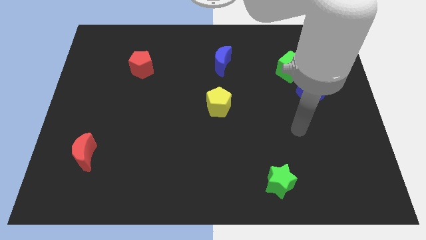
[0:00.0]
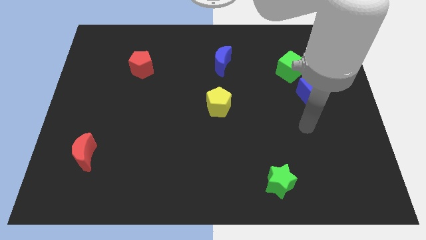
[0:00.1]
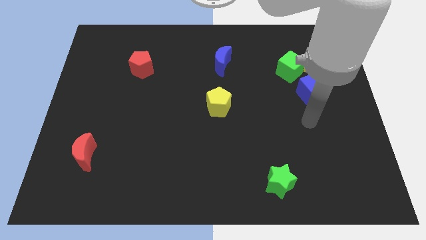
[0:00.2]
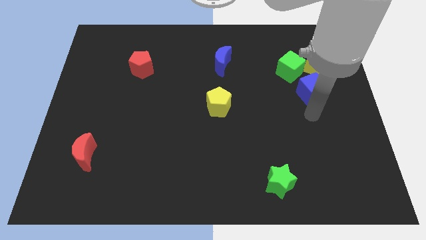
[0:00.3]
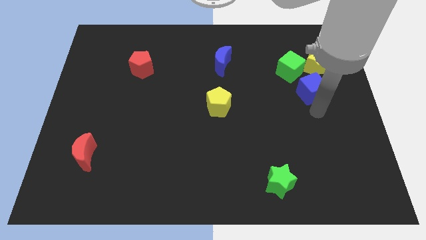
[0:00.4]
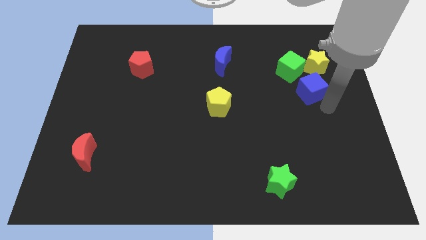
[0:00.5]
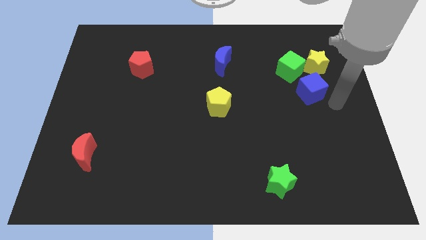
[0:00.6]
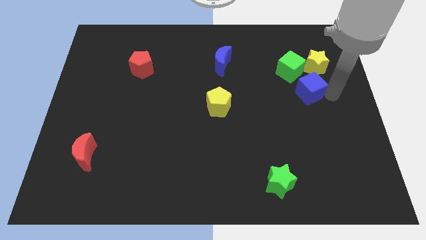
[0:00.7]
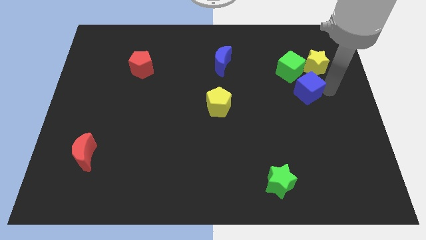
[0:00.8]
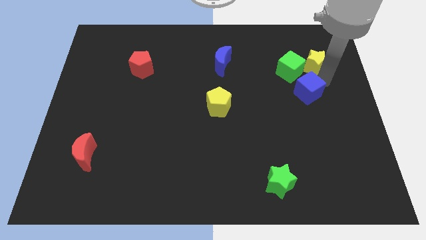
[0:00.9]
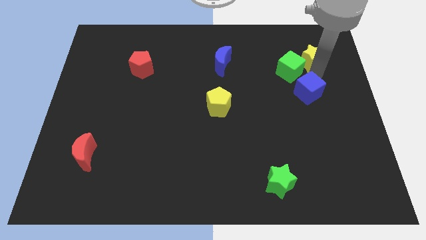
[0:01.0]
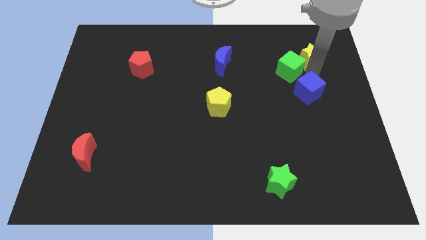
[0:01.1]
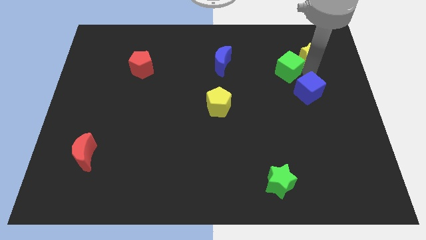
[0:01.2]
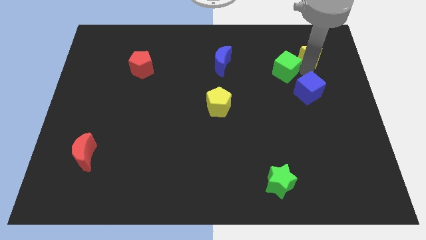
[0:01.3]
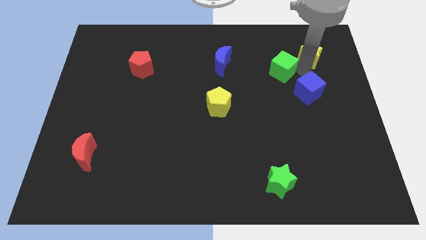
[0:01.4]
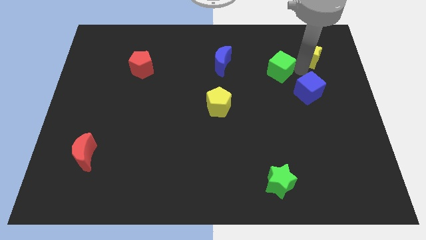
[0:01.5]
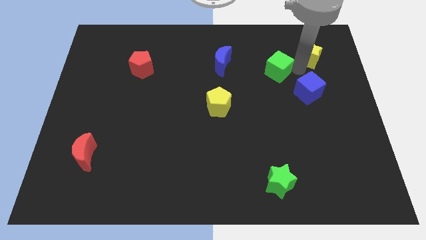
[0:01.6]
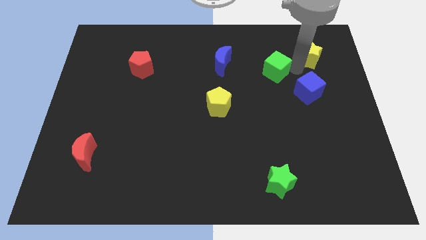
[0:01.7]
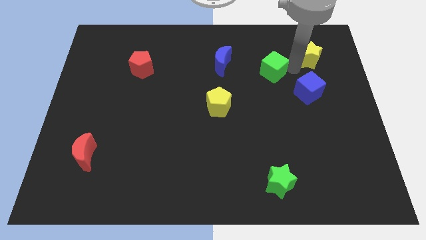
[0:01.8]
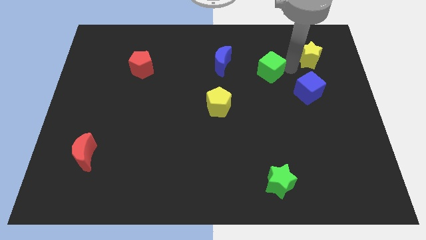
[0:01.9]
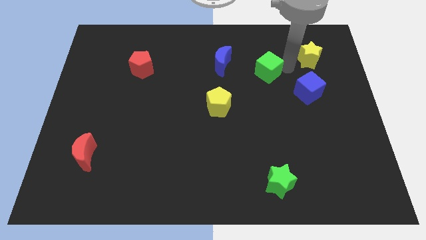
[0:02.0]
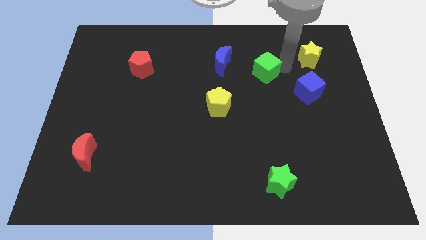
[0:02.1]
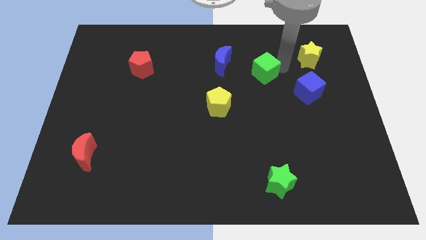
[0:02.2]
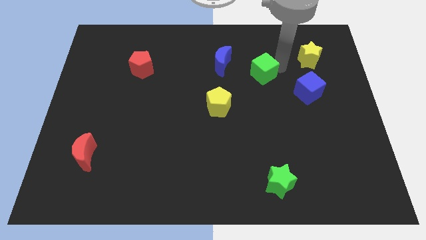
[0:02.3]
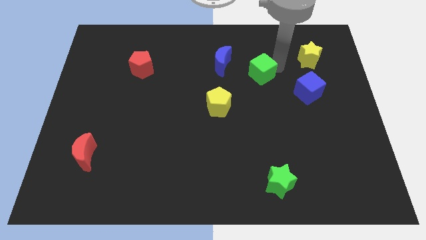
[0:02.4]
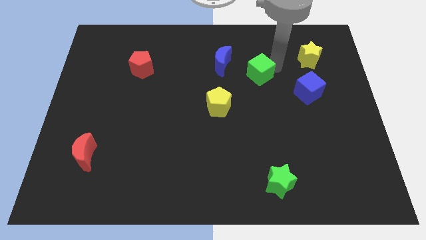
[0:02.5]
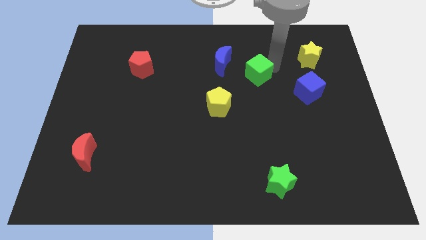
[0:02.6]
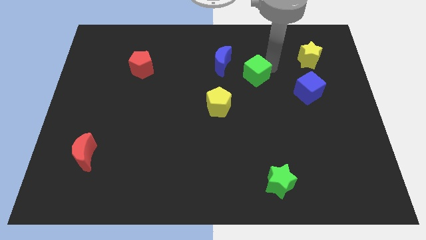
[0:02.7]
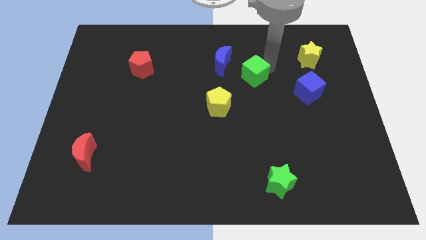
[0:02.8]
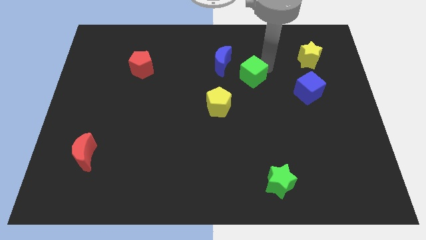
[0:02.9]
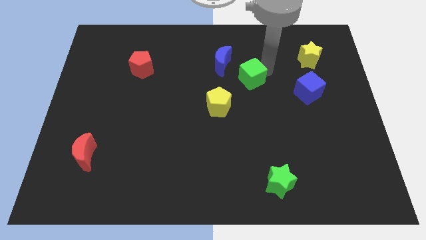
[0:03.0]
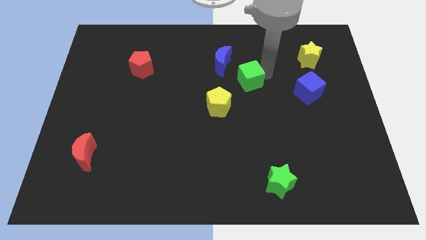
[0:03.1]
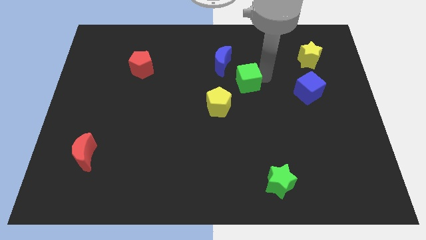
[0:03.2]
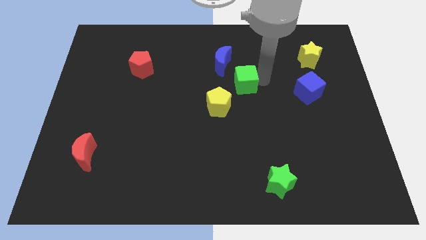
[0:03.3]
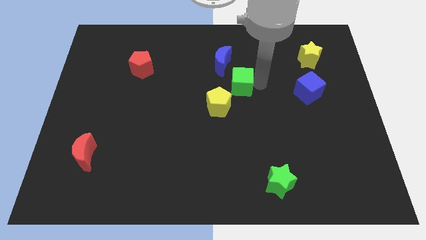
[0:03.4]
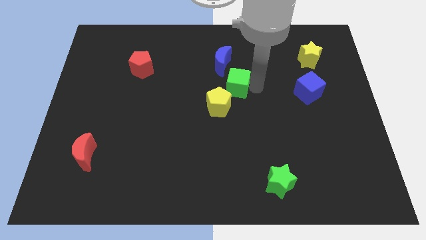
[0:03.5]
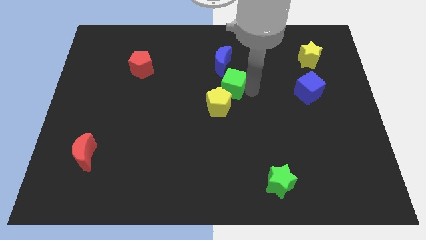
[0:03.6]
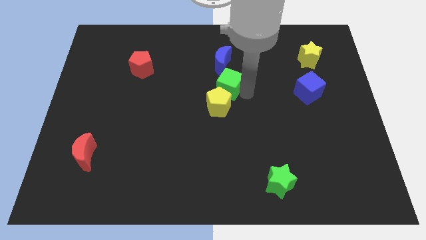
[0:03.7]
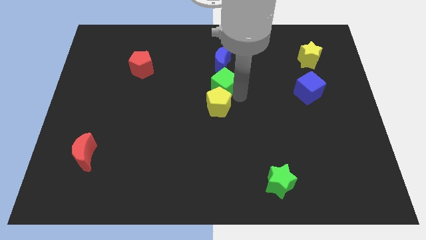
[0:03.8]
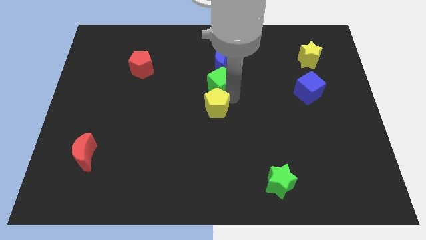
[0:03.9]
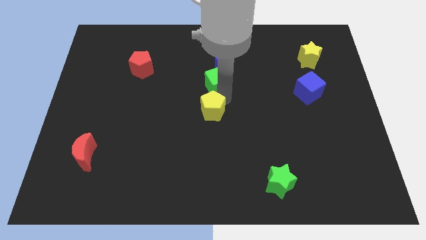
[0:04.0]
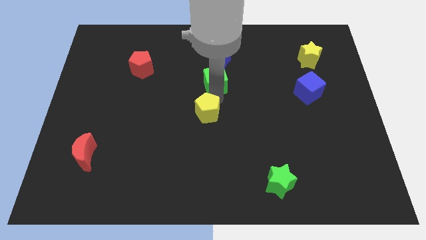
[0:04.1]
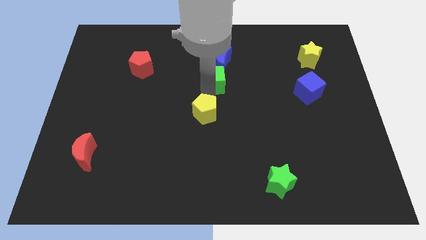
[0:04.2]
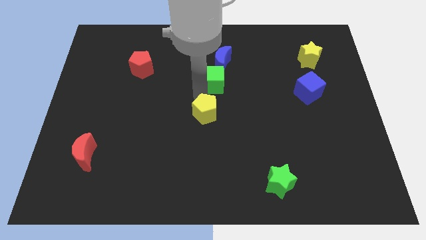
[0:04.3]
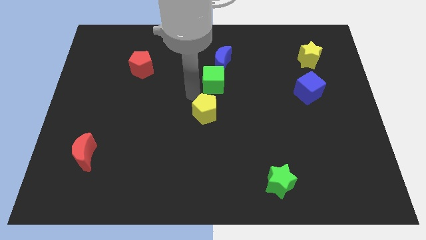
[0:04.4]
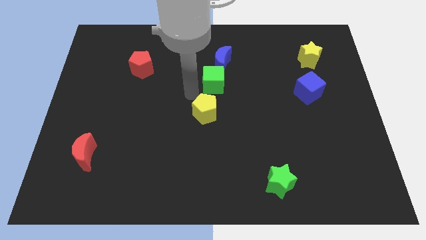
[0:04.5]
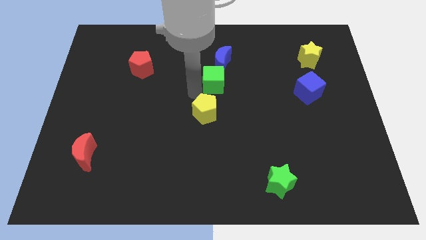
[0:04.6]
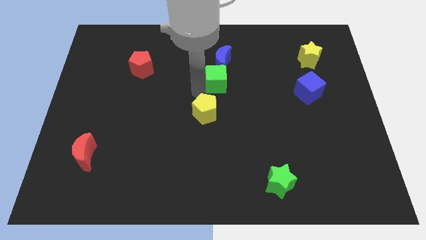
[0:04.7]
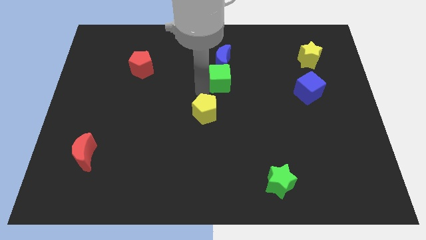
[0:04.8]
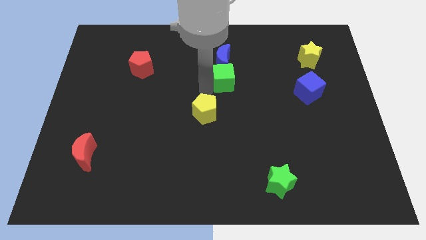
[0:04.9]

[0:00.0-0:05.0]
push the green cube close to the blue moon

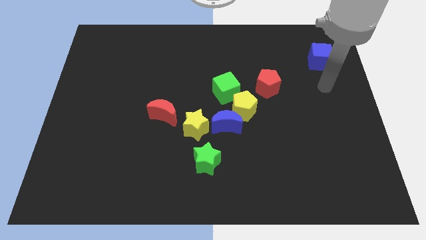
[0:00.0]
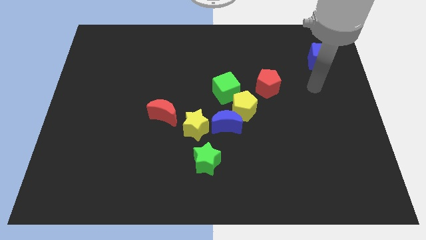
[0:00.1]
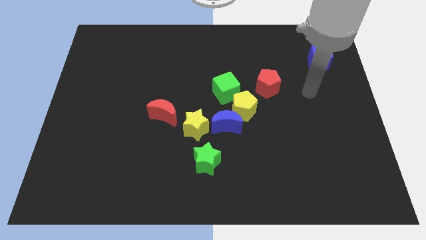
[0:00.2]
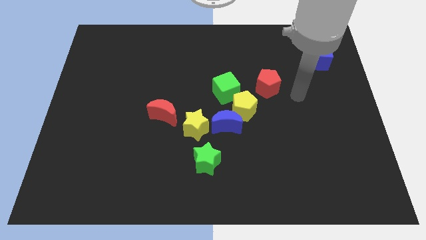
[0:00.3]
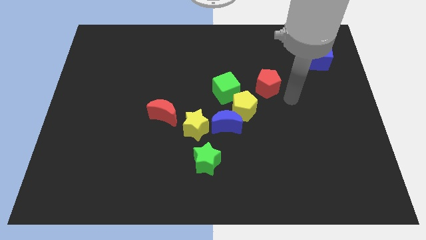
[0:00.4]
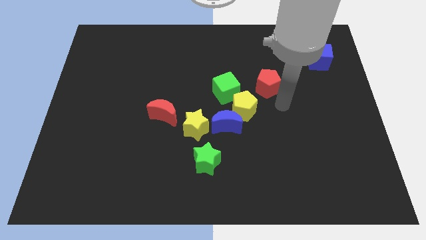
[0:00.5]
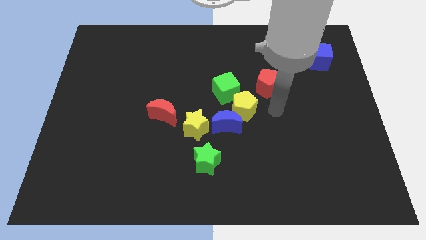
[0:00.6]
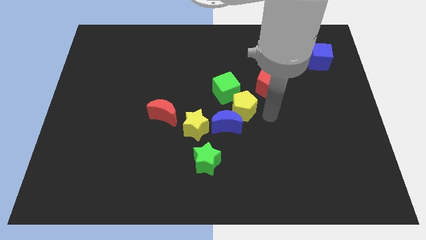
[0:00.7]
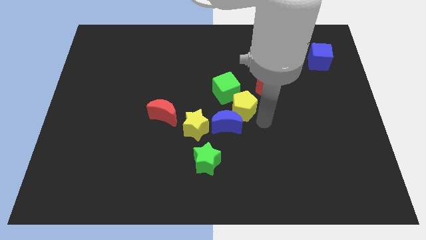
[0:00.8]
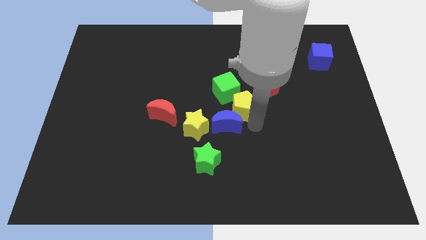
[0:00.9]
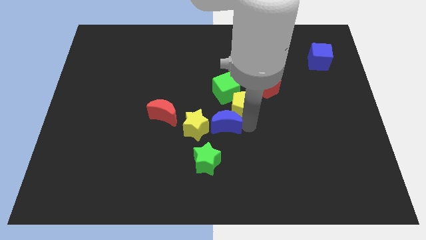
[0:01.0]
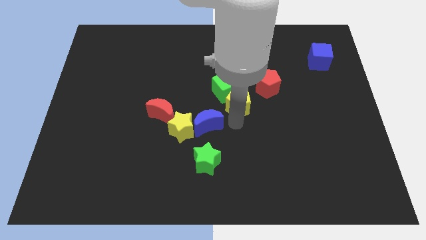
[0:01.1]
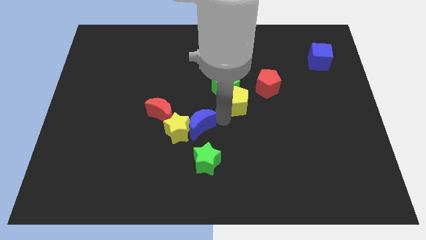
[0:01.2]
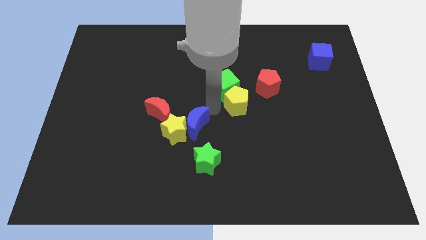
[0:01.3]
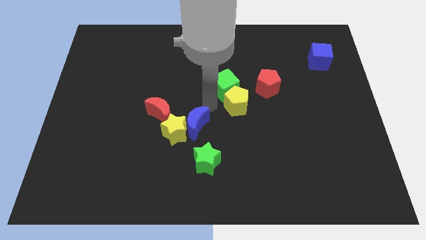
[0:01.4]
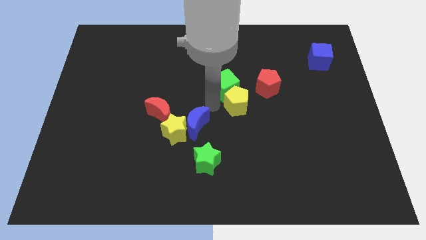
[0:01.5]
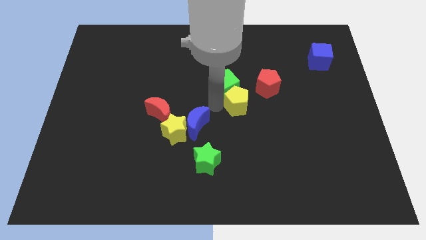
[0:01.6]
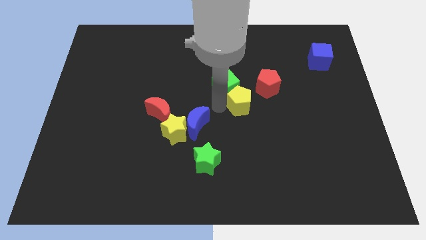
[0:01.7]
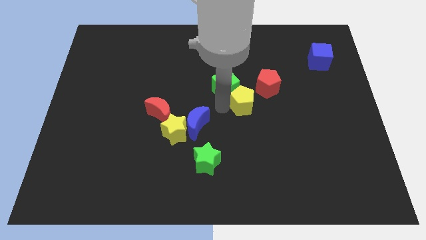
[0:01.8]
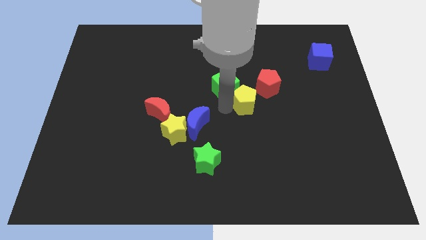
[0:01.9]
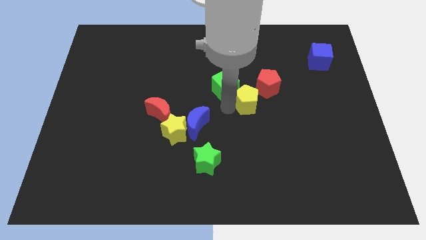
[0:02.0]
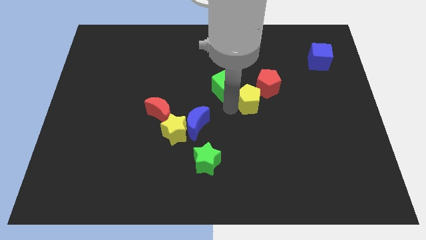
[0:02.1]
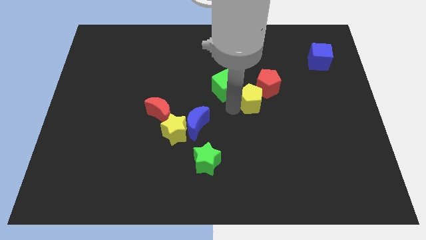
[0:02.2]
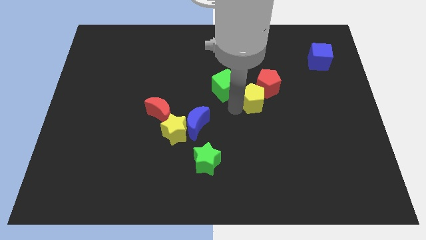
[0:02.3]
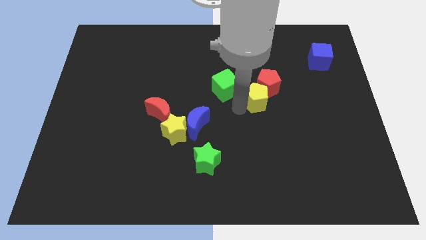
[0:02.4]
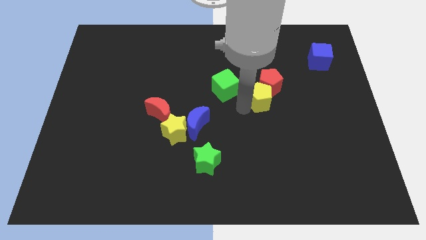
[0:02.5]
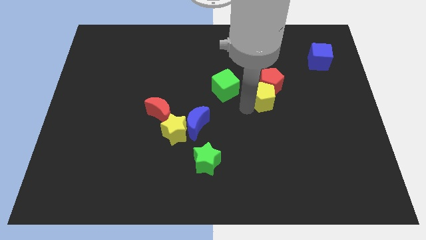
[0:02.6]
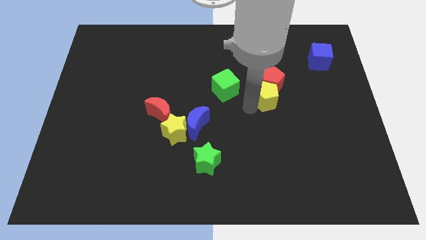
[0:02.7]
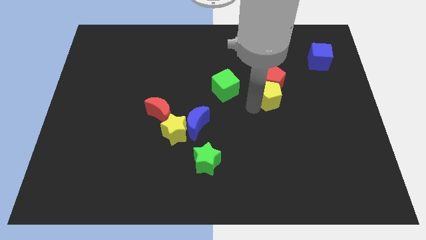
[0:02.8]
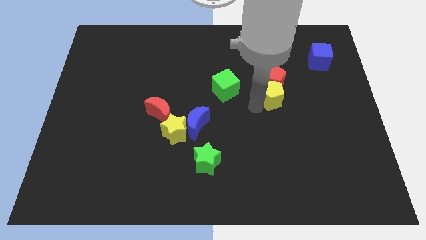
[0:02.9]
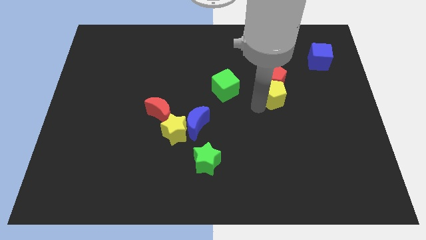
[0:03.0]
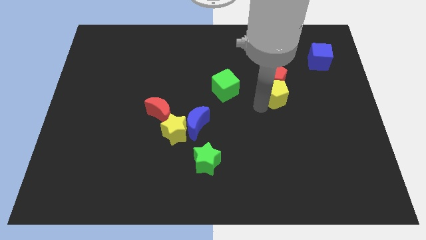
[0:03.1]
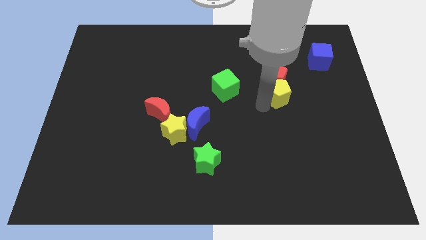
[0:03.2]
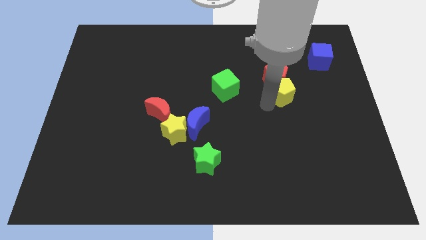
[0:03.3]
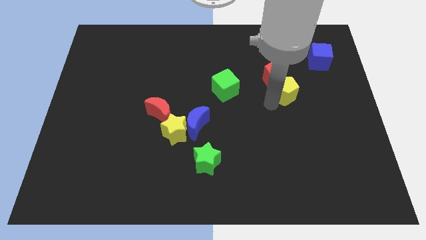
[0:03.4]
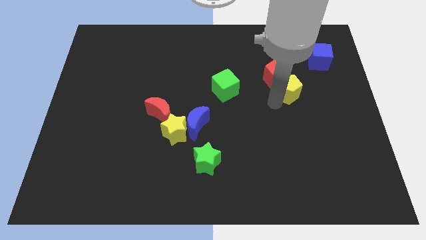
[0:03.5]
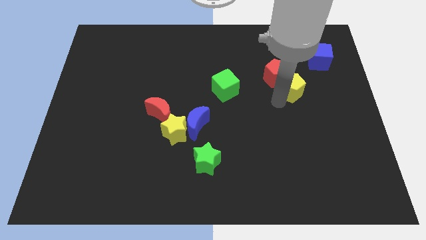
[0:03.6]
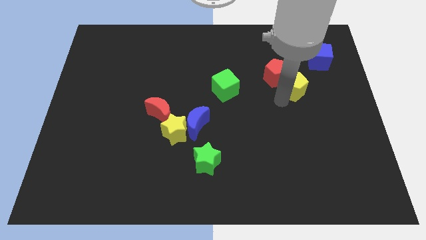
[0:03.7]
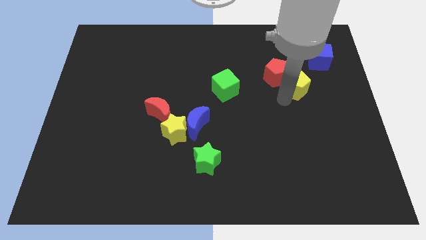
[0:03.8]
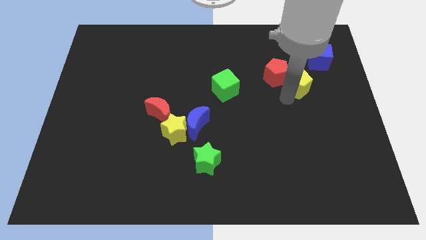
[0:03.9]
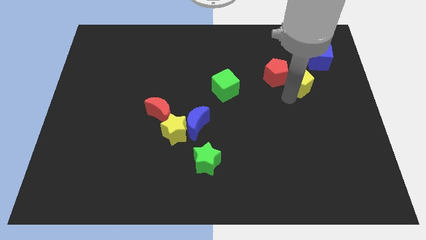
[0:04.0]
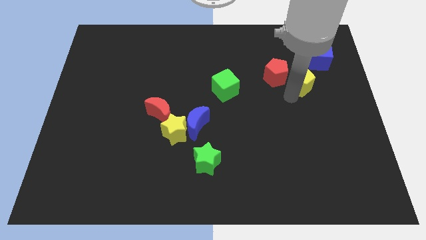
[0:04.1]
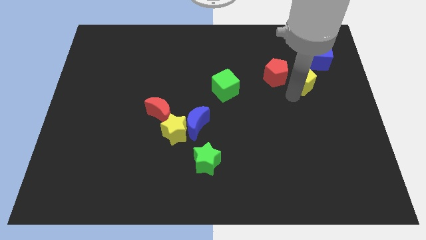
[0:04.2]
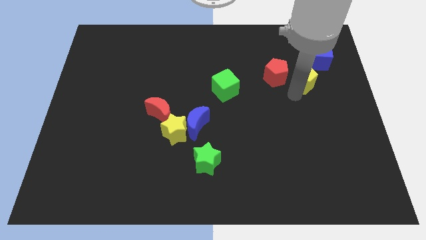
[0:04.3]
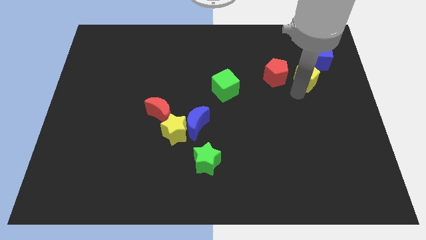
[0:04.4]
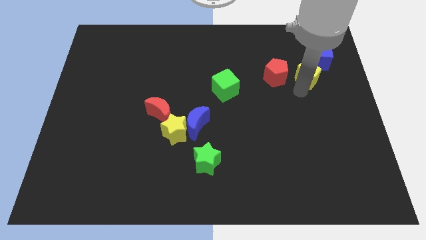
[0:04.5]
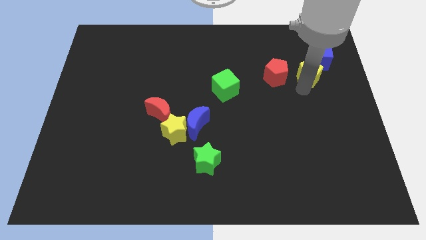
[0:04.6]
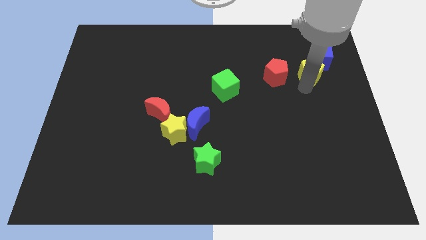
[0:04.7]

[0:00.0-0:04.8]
slide the yellow pentagon to the blue cube
